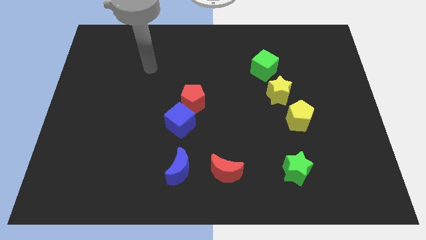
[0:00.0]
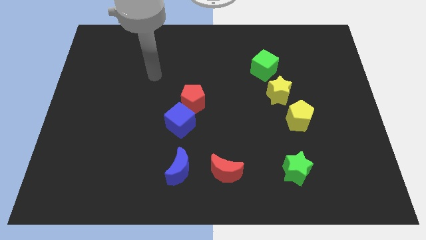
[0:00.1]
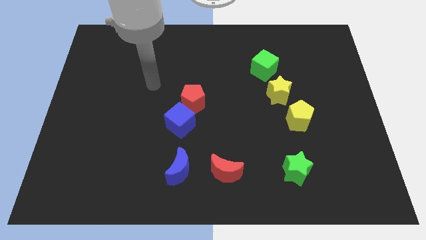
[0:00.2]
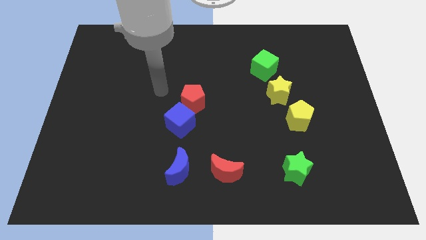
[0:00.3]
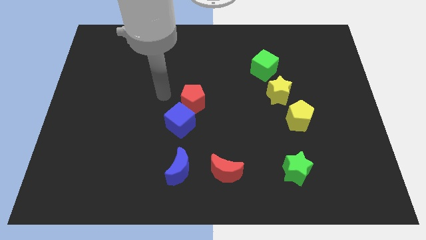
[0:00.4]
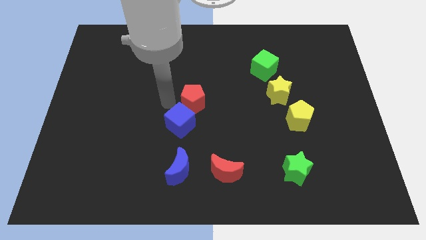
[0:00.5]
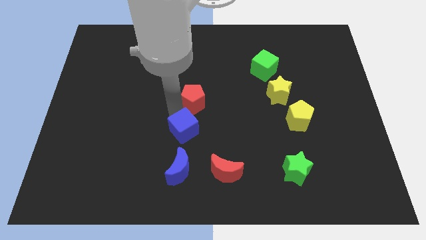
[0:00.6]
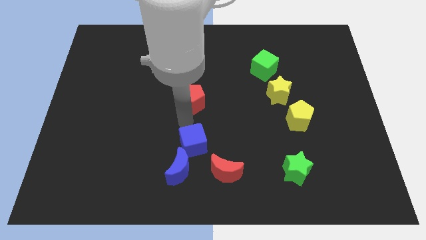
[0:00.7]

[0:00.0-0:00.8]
move the red pentagon away from the blue cube

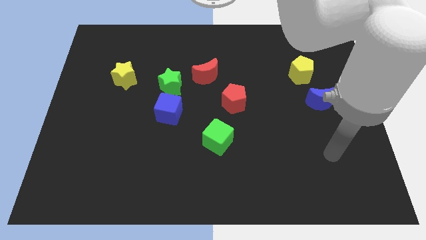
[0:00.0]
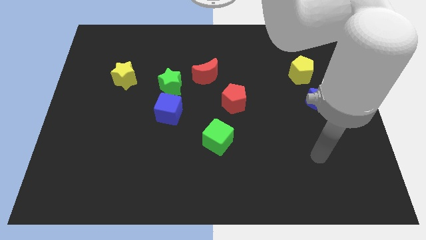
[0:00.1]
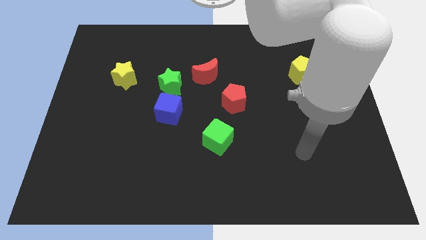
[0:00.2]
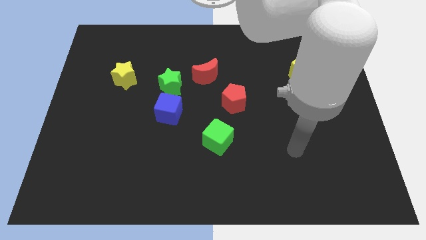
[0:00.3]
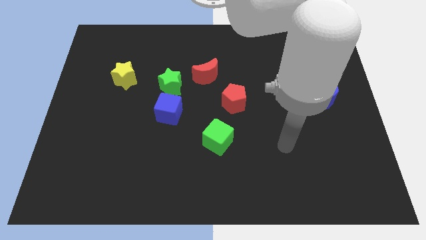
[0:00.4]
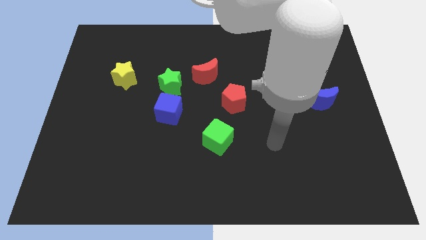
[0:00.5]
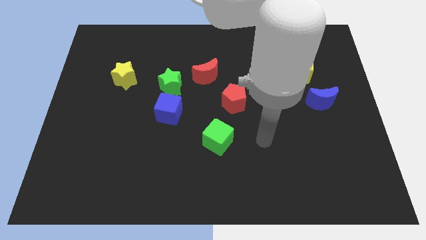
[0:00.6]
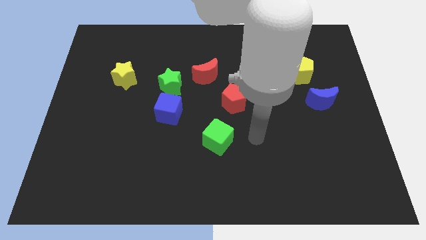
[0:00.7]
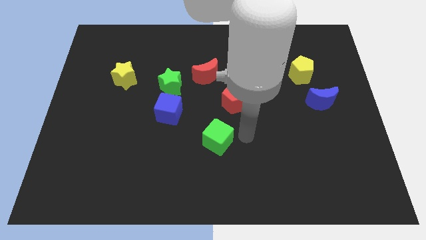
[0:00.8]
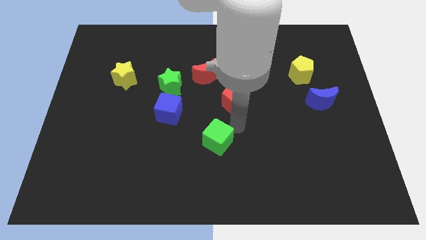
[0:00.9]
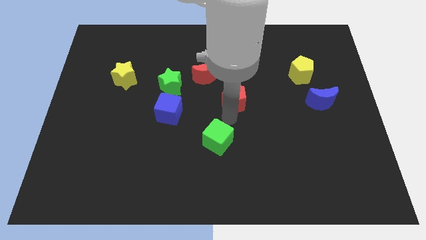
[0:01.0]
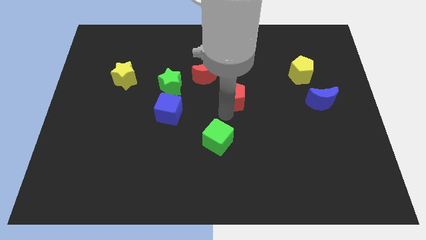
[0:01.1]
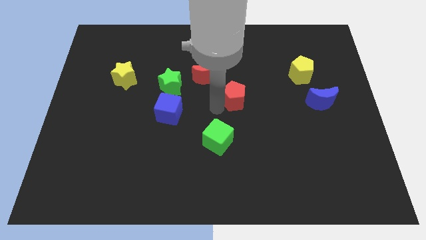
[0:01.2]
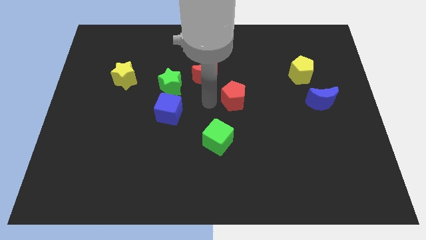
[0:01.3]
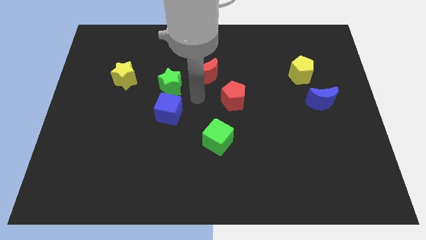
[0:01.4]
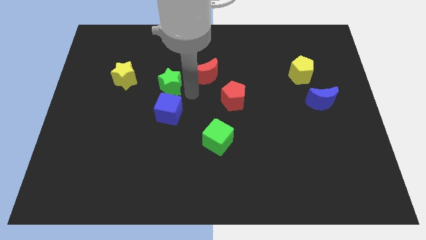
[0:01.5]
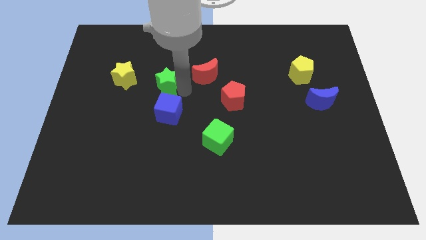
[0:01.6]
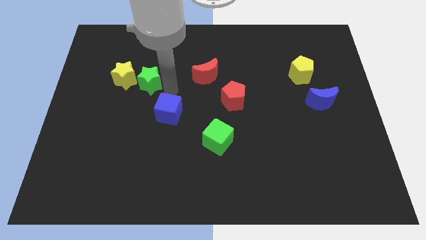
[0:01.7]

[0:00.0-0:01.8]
move the blue cube away from the green star

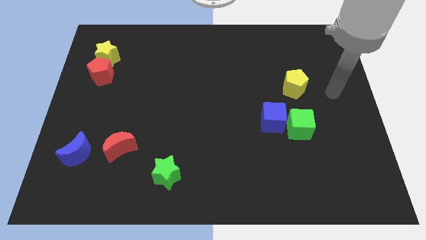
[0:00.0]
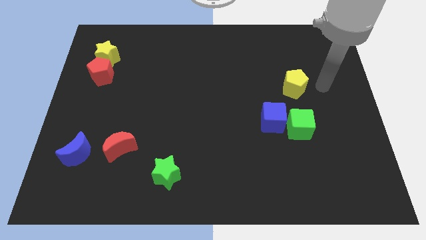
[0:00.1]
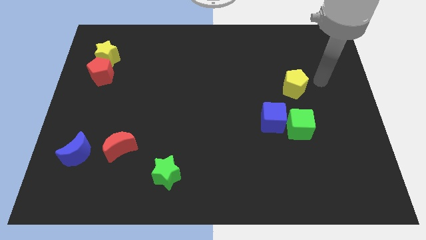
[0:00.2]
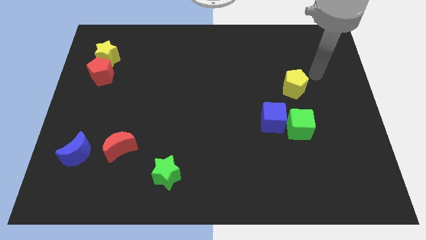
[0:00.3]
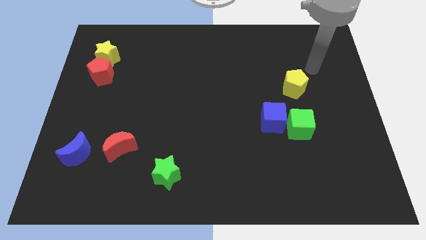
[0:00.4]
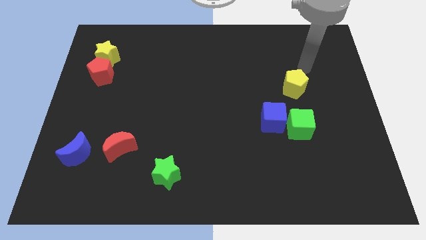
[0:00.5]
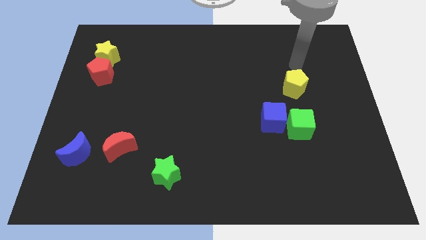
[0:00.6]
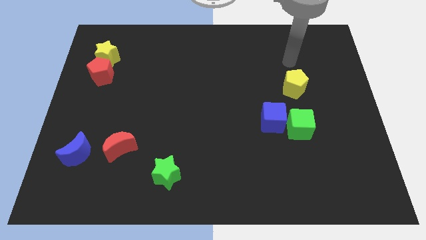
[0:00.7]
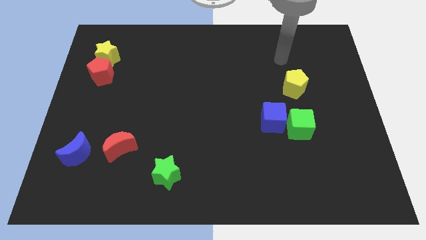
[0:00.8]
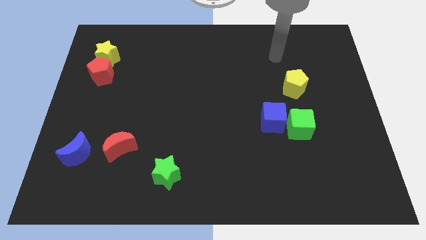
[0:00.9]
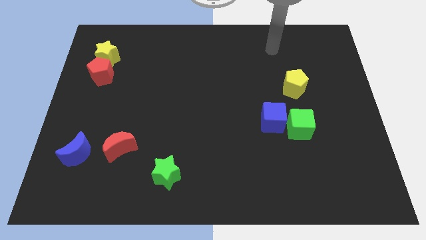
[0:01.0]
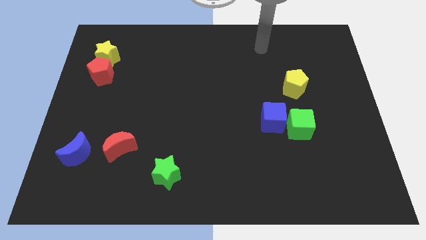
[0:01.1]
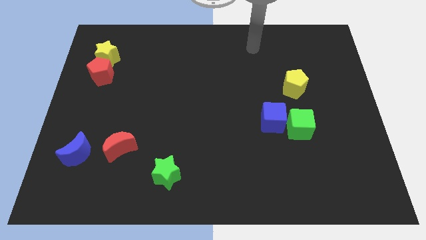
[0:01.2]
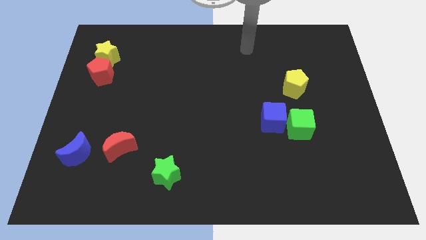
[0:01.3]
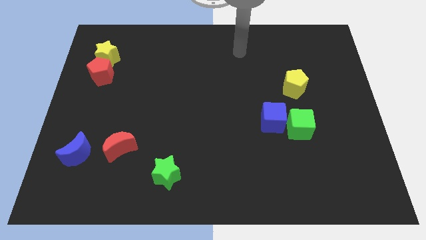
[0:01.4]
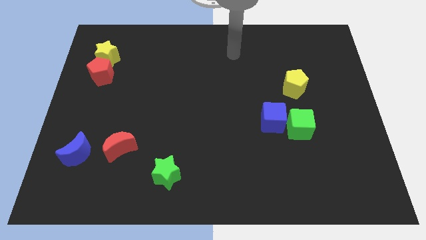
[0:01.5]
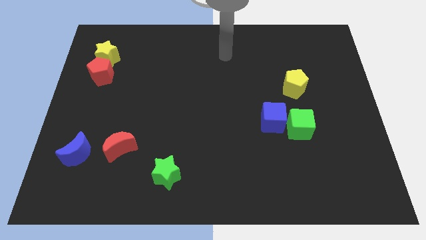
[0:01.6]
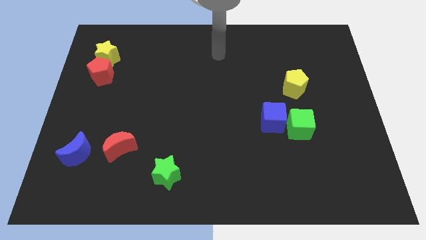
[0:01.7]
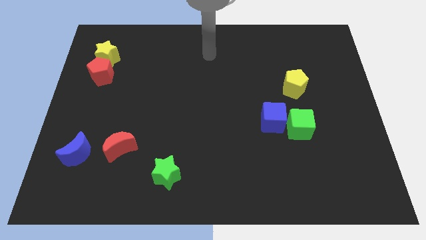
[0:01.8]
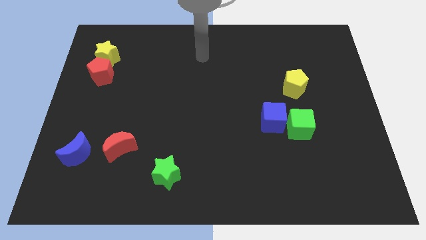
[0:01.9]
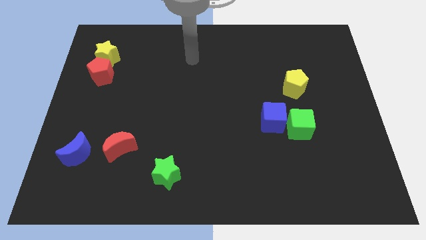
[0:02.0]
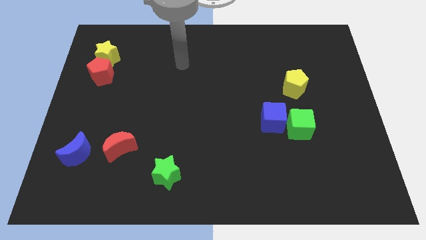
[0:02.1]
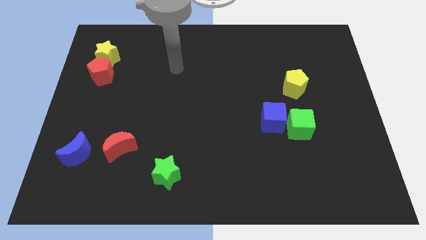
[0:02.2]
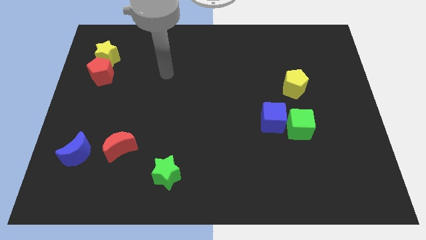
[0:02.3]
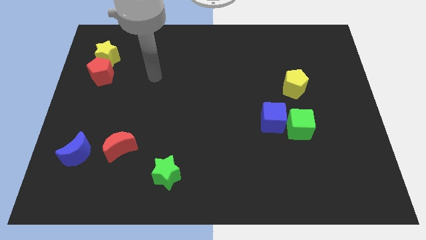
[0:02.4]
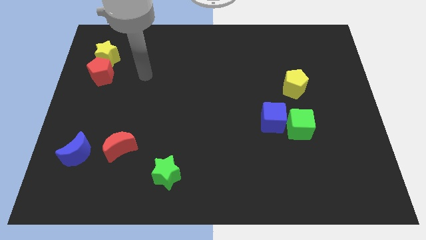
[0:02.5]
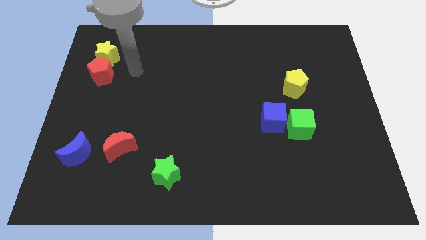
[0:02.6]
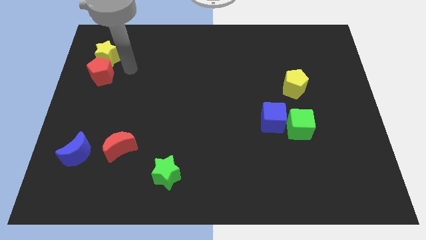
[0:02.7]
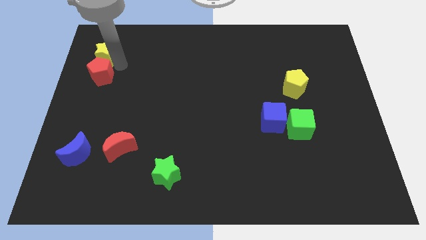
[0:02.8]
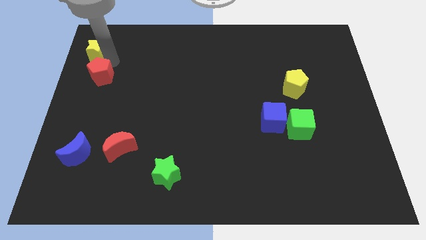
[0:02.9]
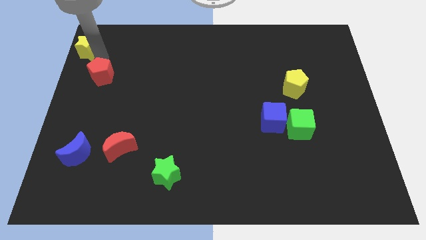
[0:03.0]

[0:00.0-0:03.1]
pull the red pentagon apart from the yellow star

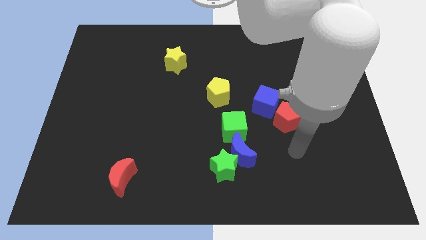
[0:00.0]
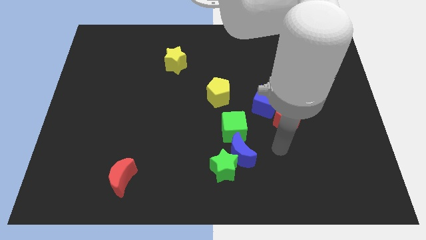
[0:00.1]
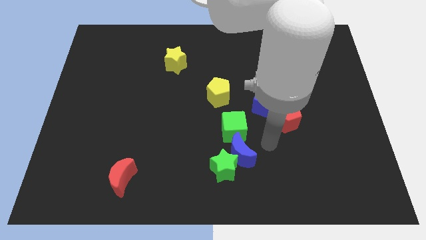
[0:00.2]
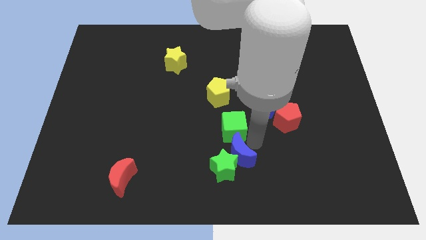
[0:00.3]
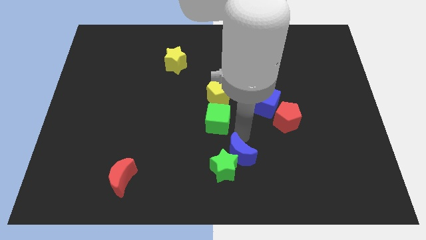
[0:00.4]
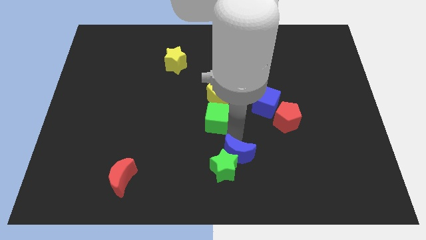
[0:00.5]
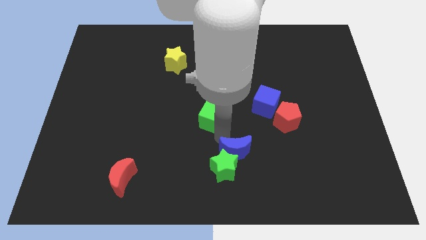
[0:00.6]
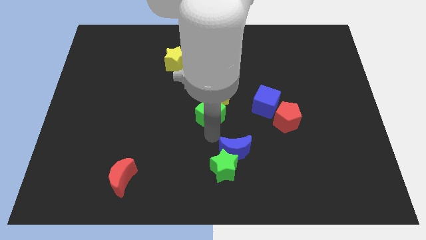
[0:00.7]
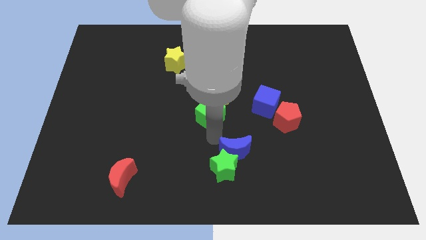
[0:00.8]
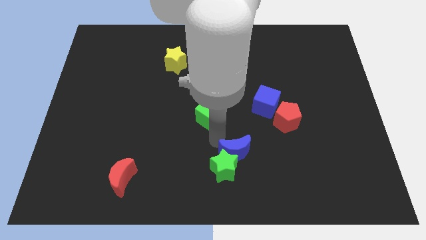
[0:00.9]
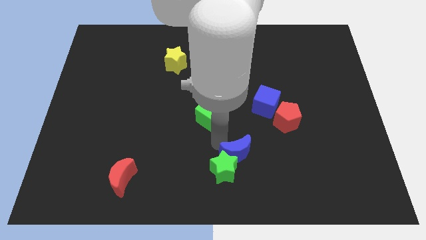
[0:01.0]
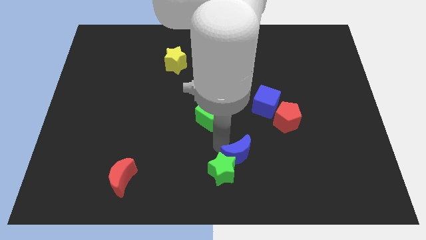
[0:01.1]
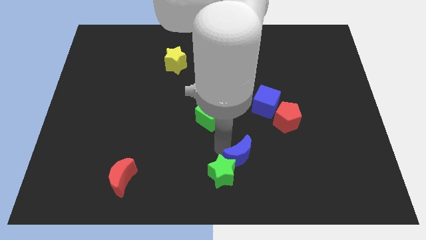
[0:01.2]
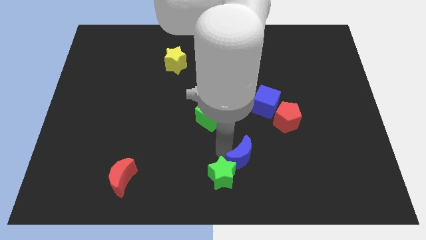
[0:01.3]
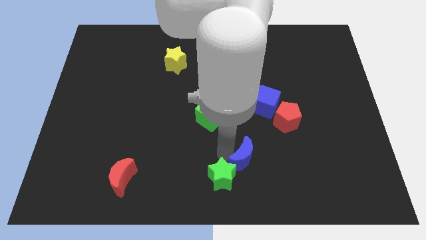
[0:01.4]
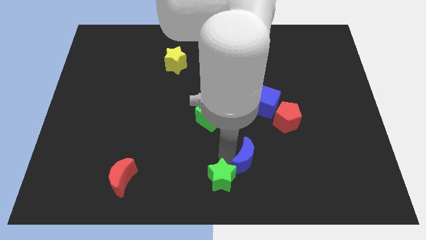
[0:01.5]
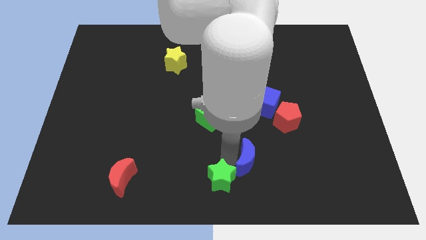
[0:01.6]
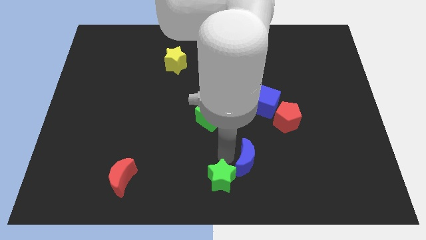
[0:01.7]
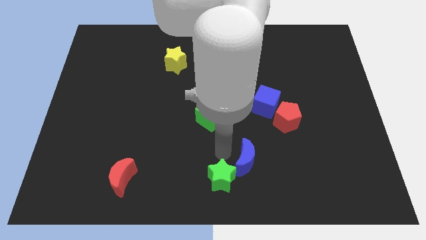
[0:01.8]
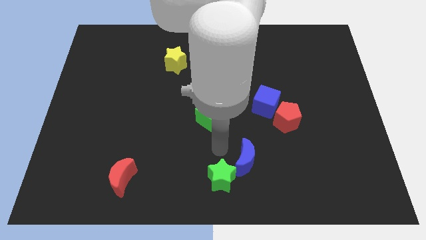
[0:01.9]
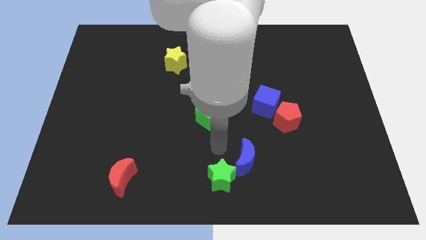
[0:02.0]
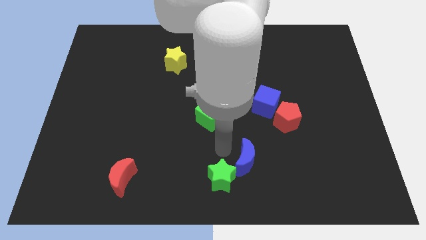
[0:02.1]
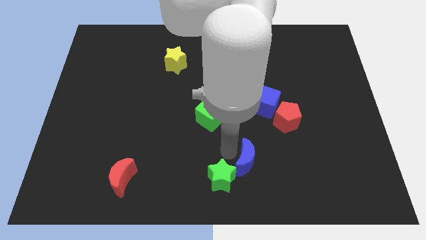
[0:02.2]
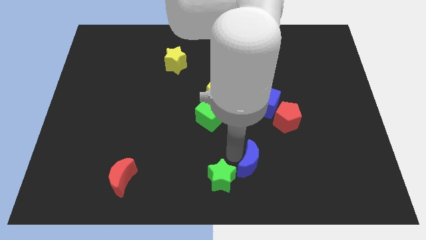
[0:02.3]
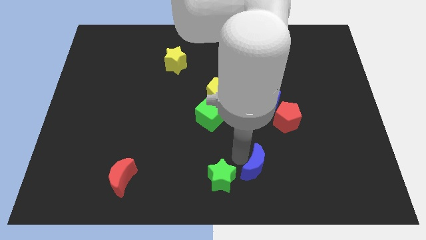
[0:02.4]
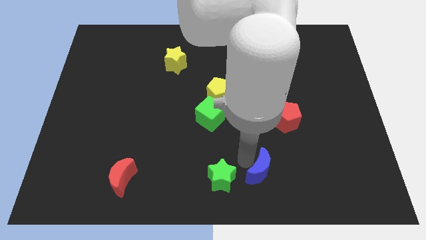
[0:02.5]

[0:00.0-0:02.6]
separate the blue moon from the green star and green cube

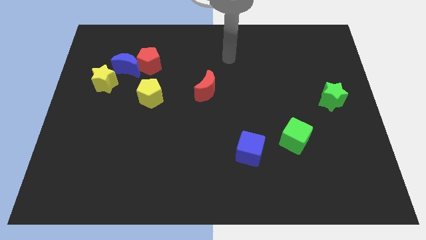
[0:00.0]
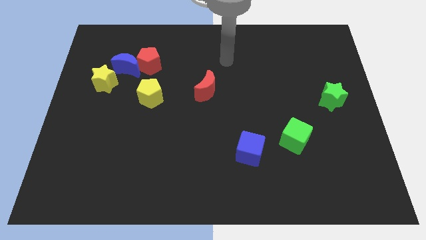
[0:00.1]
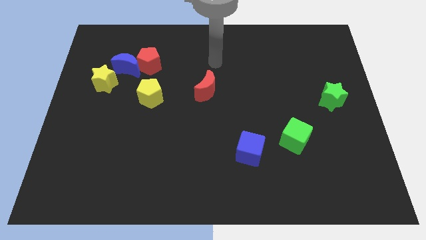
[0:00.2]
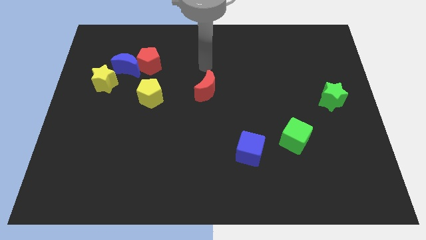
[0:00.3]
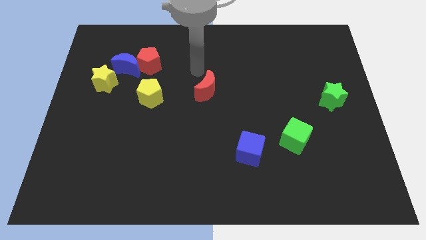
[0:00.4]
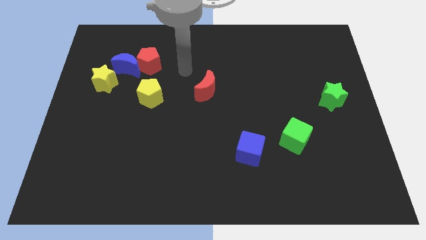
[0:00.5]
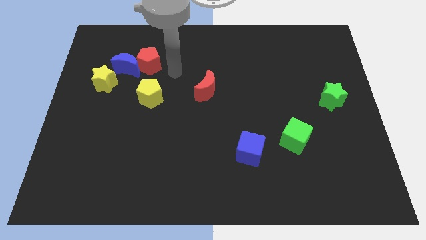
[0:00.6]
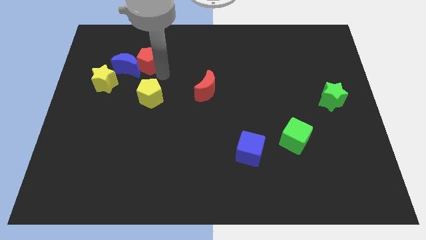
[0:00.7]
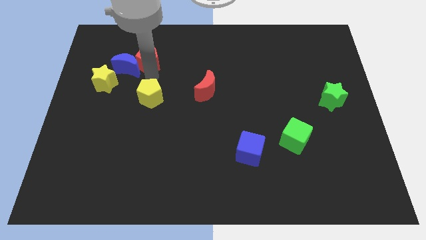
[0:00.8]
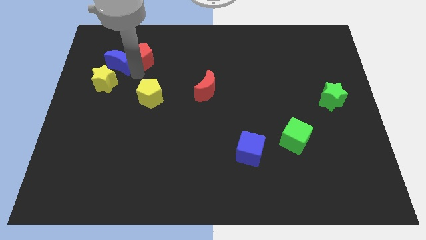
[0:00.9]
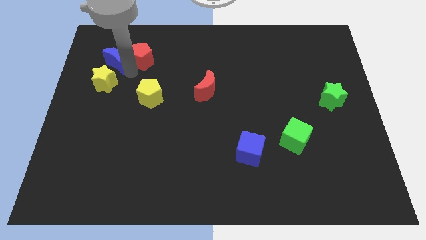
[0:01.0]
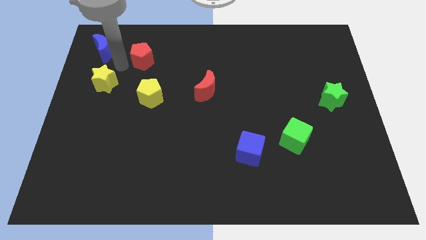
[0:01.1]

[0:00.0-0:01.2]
separate the red pentagon from the blue moon
